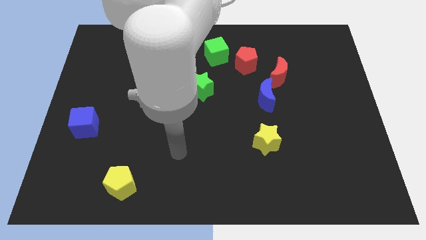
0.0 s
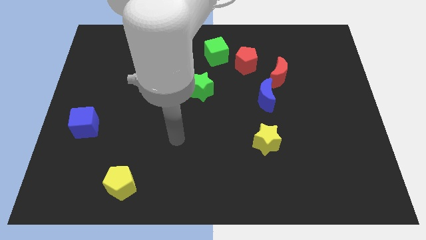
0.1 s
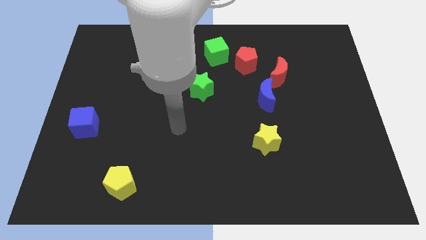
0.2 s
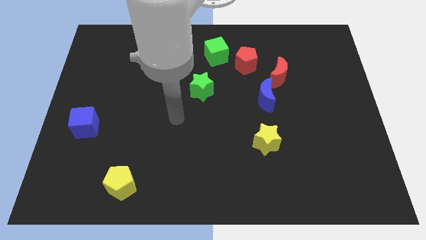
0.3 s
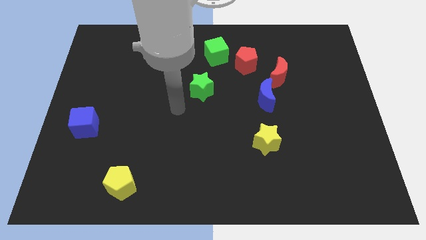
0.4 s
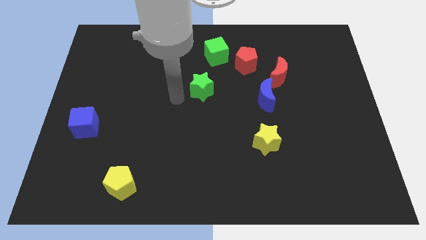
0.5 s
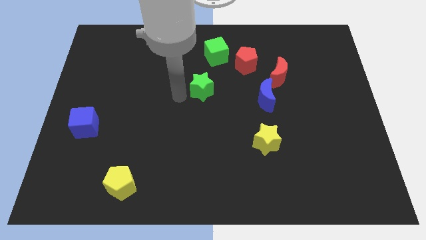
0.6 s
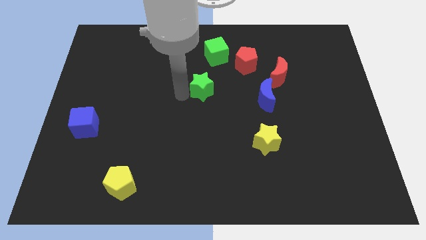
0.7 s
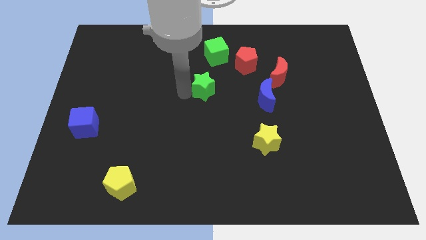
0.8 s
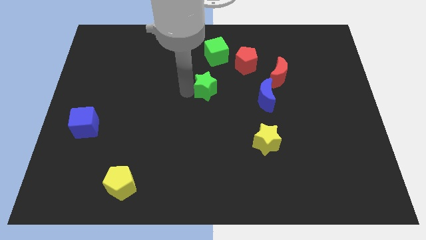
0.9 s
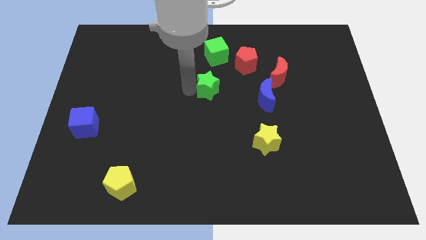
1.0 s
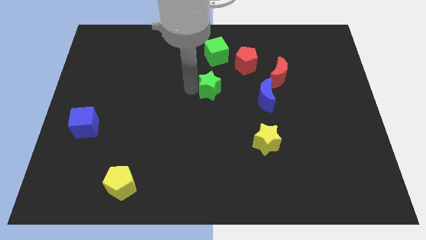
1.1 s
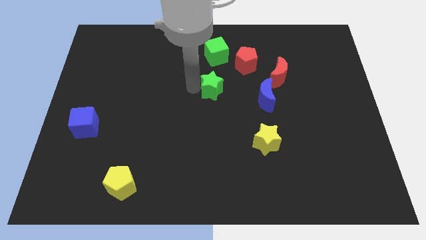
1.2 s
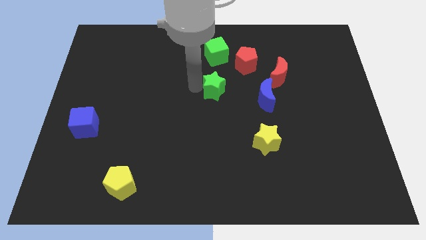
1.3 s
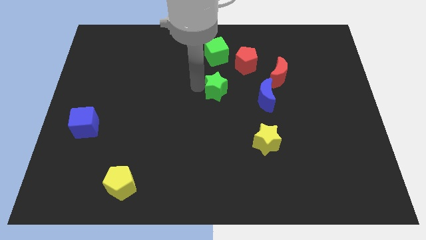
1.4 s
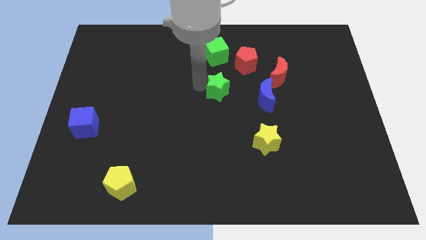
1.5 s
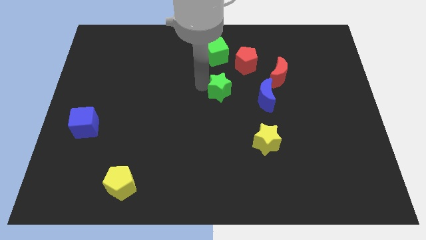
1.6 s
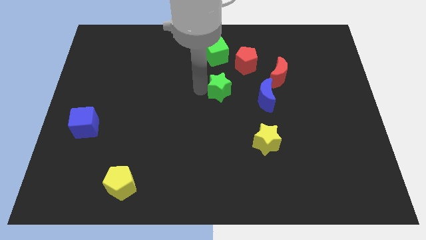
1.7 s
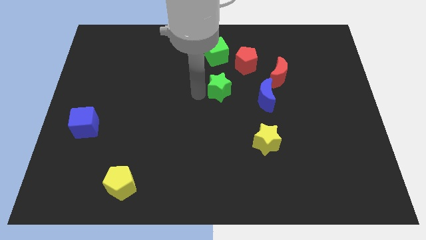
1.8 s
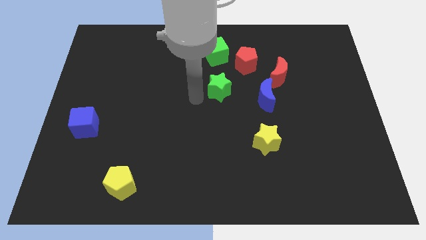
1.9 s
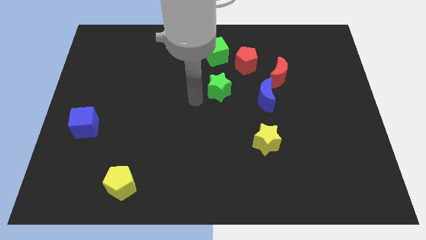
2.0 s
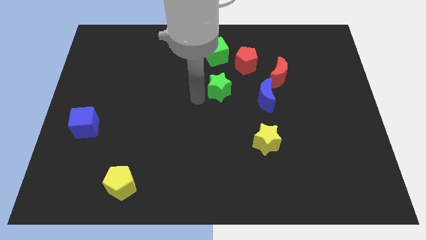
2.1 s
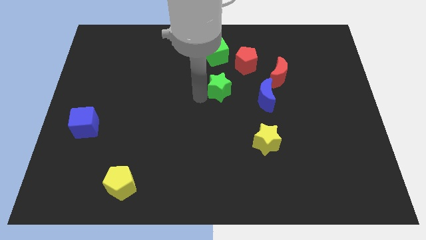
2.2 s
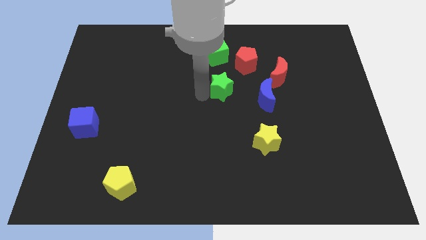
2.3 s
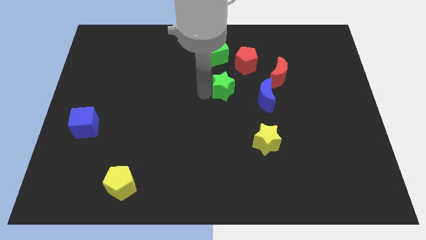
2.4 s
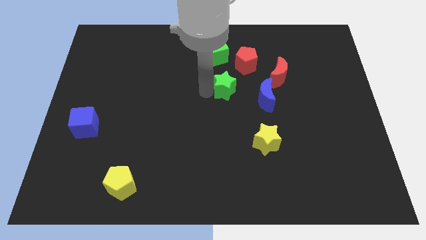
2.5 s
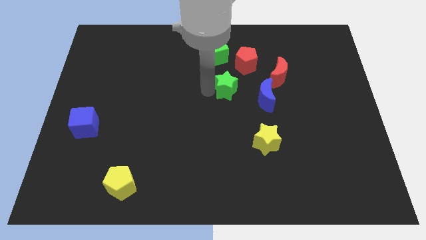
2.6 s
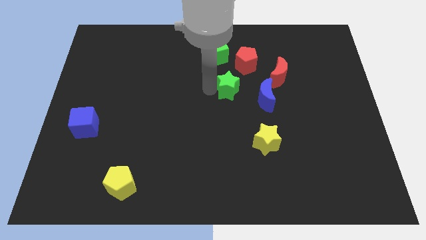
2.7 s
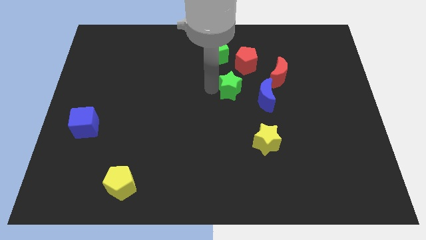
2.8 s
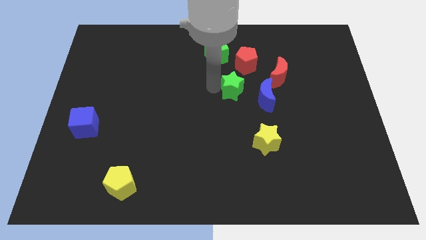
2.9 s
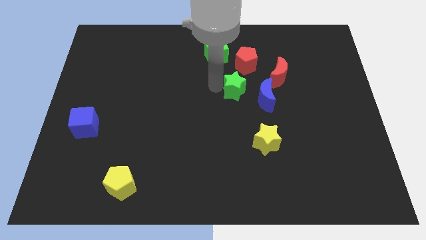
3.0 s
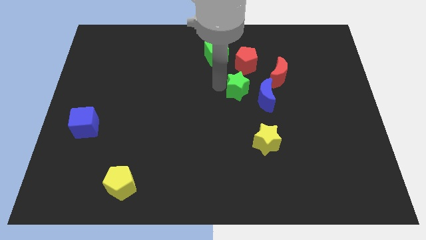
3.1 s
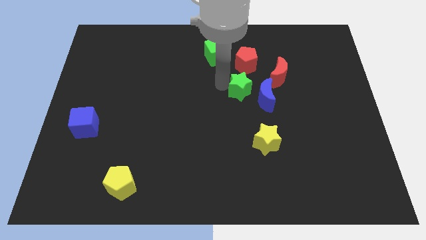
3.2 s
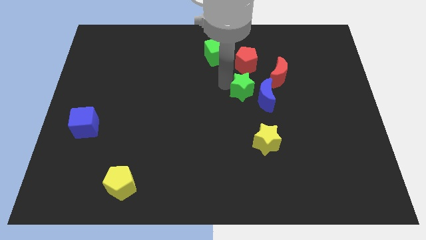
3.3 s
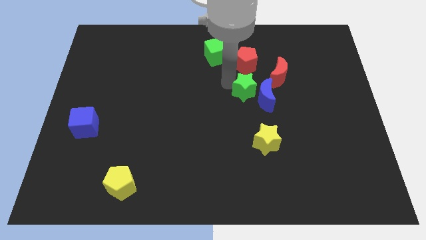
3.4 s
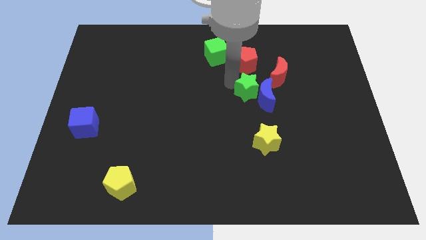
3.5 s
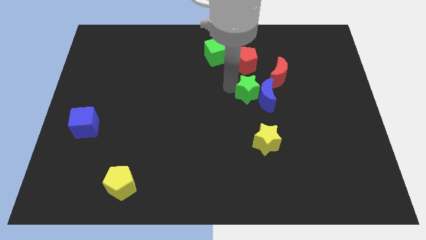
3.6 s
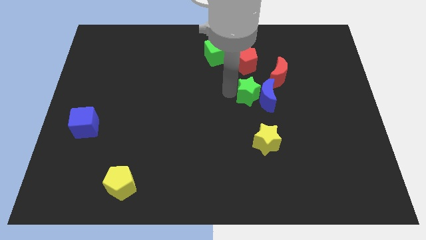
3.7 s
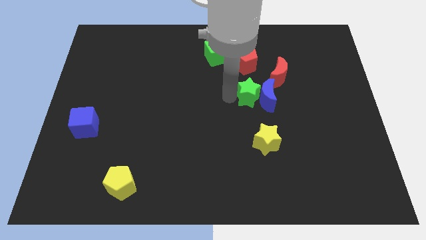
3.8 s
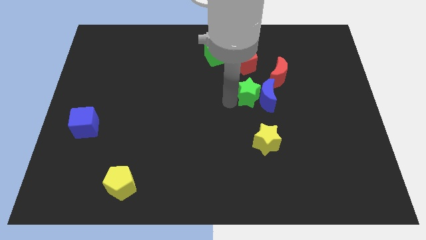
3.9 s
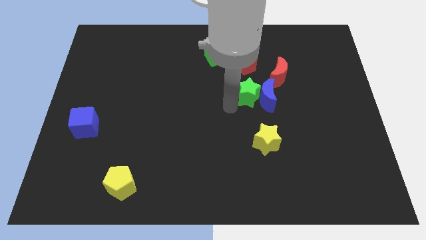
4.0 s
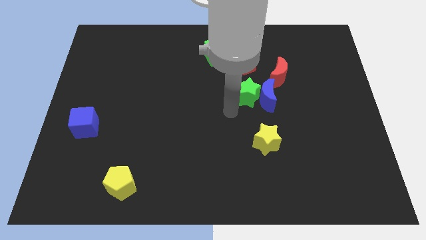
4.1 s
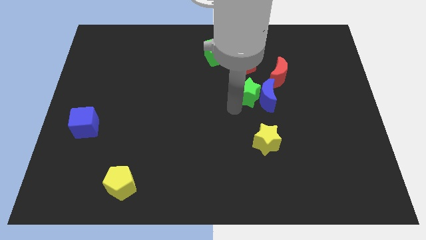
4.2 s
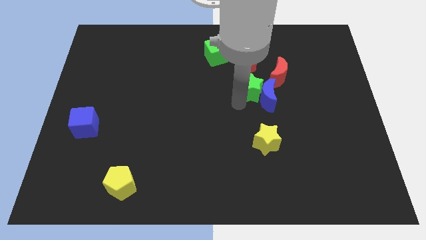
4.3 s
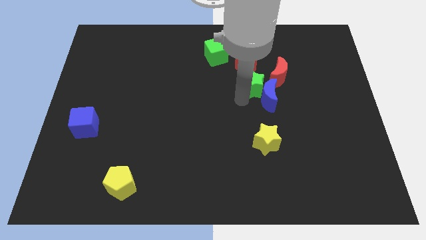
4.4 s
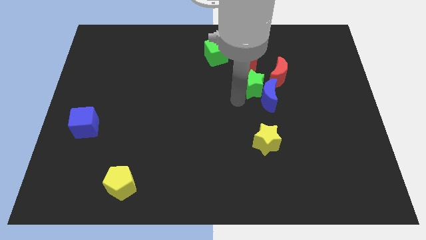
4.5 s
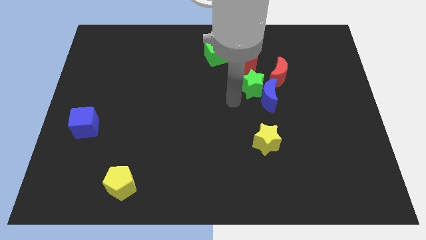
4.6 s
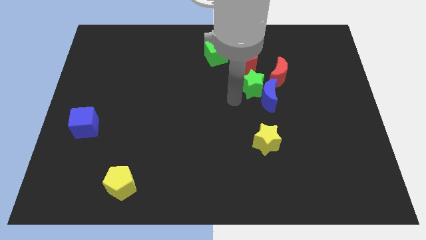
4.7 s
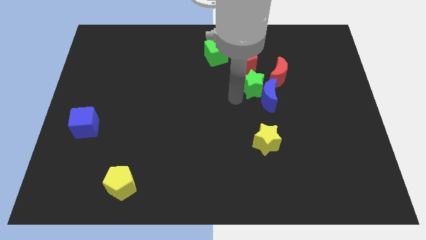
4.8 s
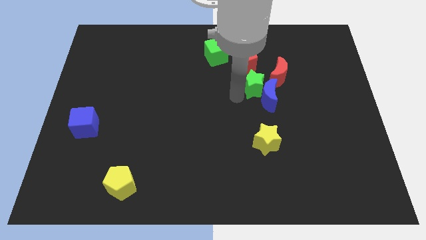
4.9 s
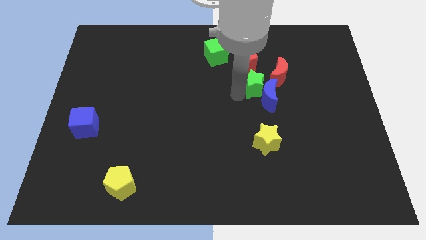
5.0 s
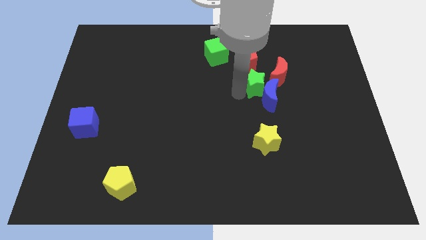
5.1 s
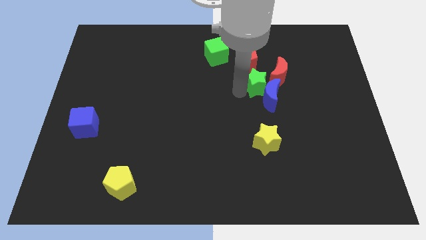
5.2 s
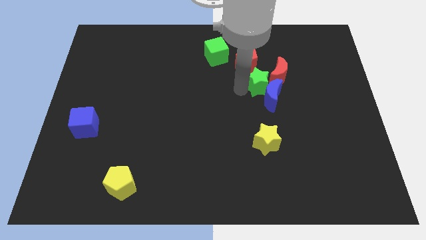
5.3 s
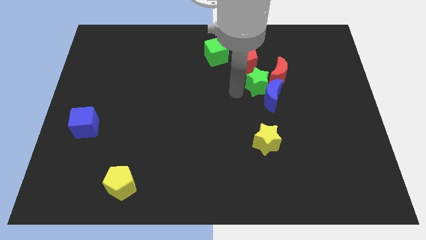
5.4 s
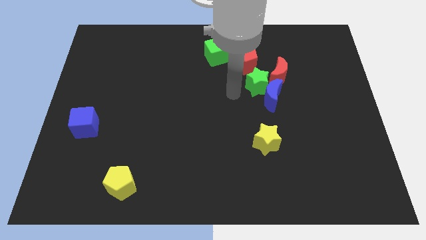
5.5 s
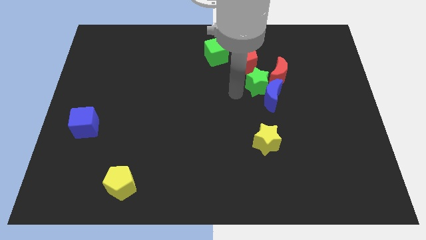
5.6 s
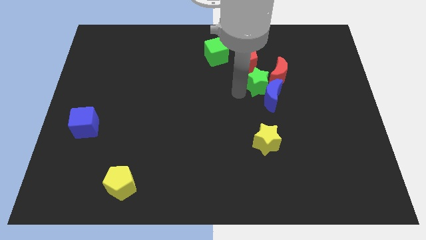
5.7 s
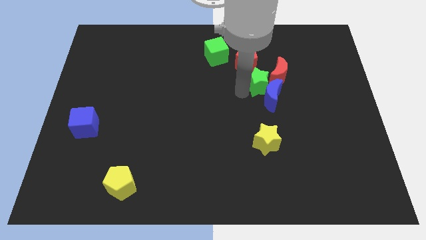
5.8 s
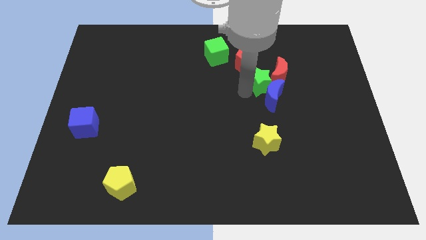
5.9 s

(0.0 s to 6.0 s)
move the green star next to the red moon

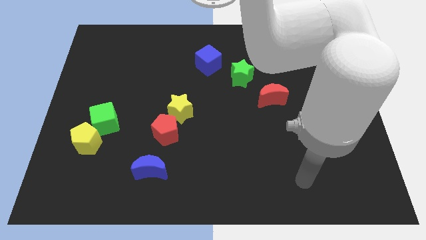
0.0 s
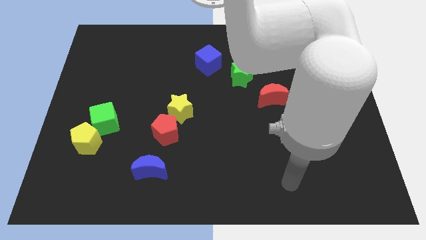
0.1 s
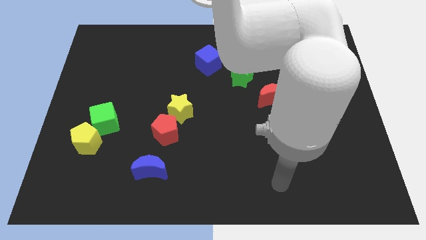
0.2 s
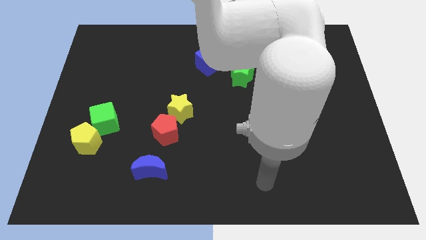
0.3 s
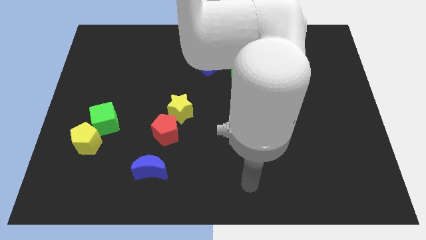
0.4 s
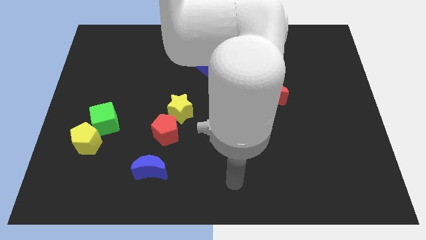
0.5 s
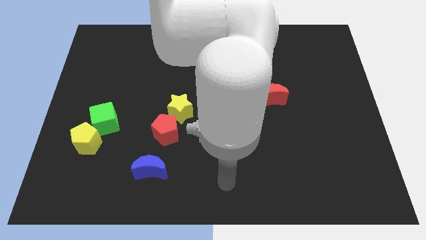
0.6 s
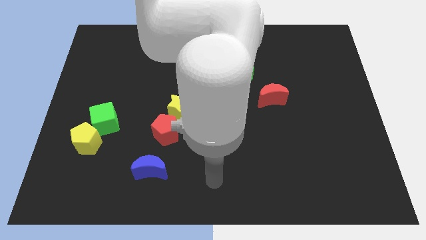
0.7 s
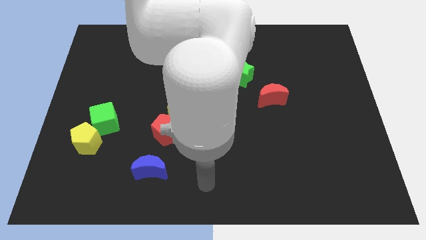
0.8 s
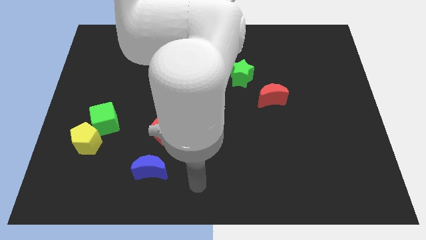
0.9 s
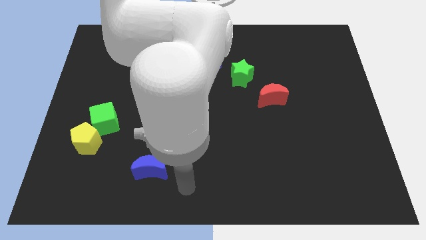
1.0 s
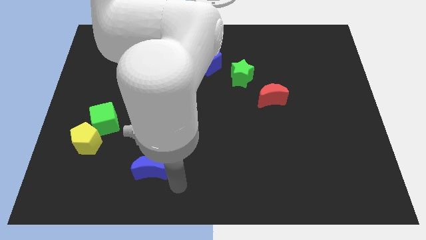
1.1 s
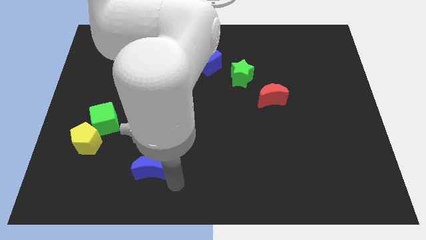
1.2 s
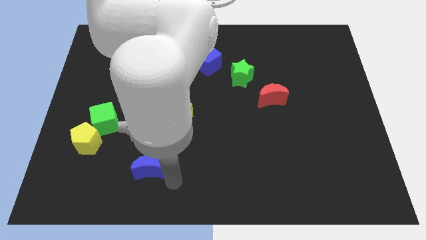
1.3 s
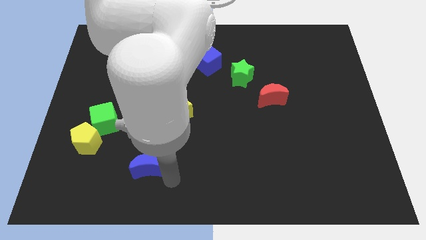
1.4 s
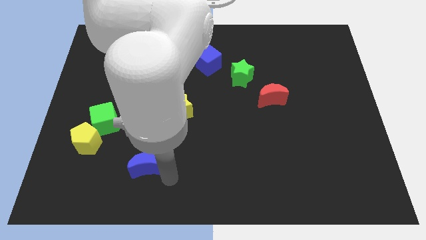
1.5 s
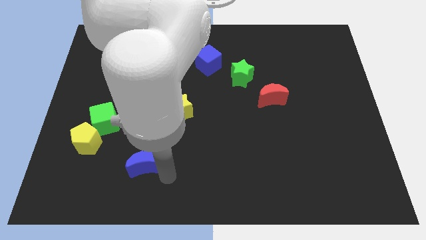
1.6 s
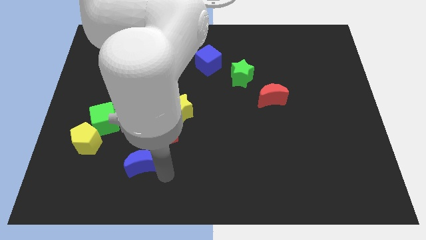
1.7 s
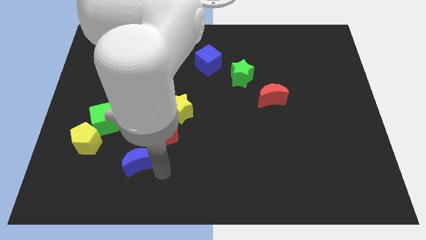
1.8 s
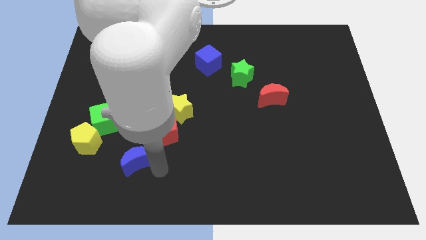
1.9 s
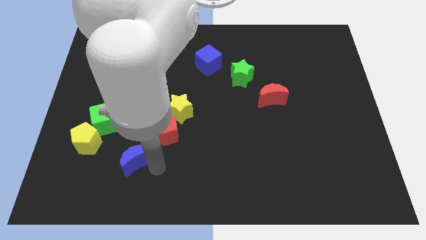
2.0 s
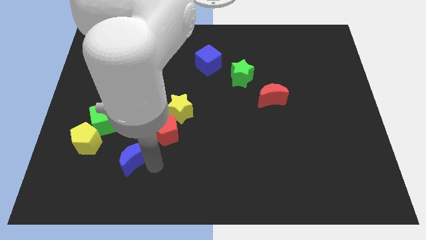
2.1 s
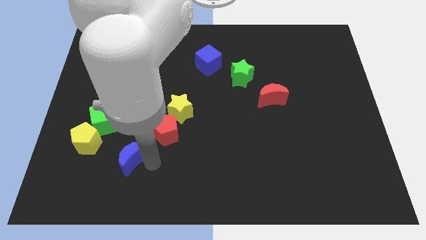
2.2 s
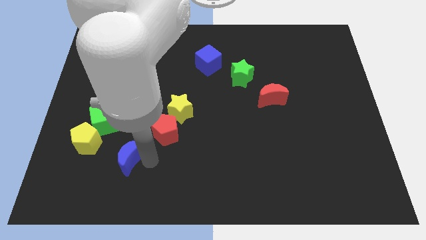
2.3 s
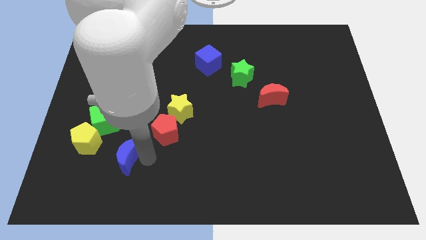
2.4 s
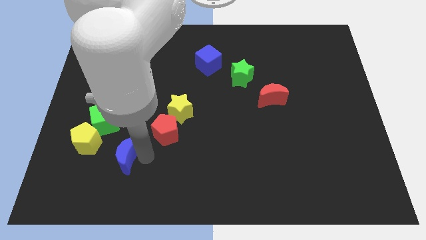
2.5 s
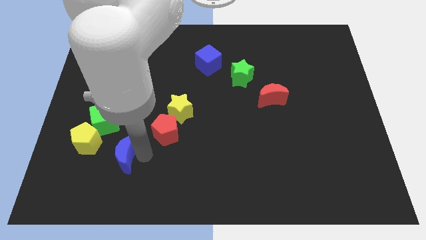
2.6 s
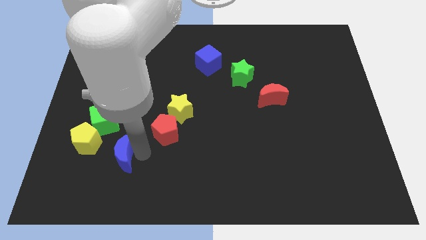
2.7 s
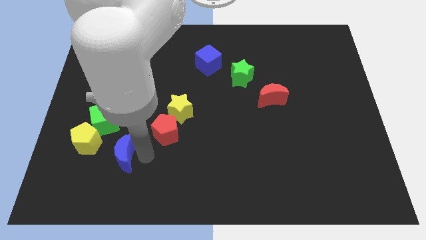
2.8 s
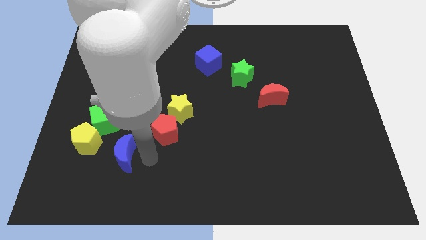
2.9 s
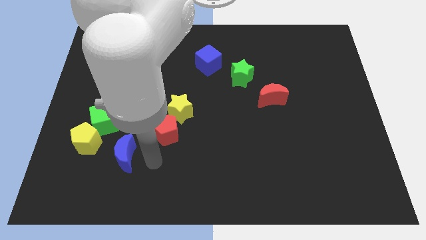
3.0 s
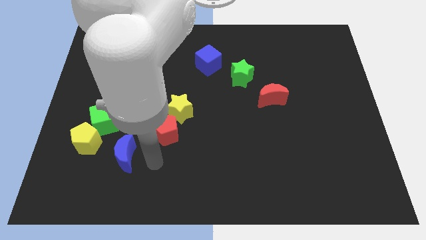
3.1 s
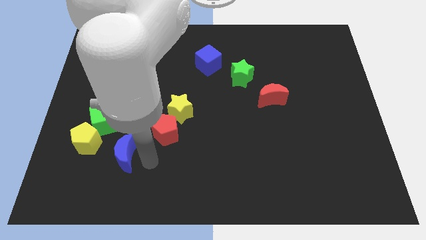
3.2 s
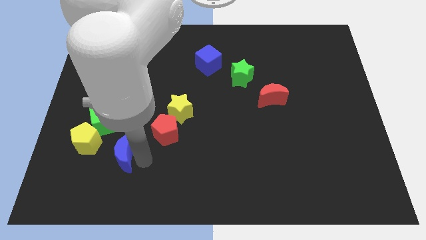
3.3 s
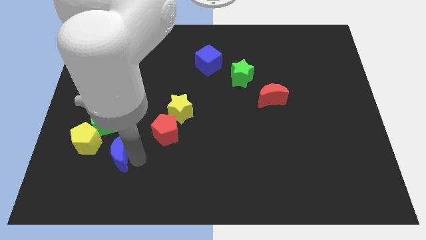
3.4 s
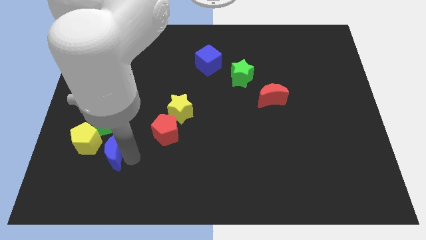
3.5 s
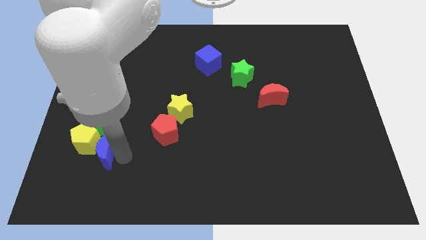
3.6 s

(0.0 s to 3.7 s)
move the blue moon towards the yellow pentagon
